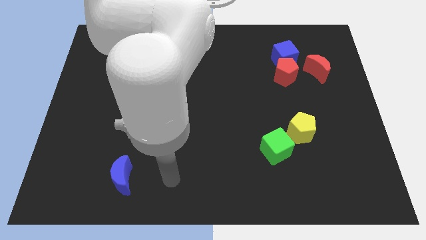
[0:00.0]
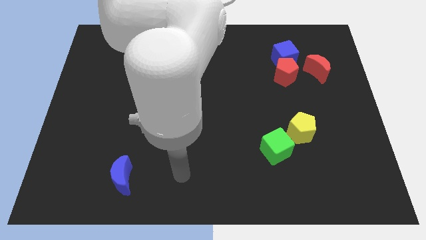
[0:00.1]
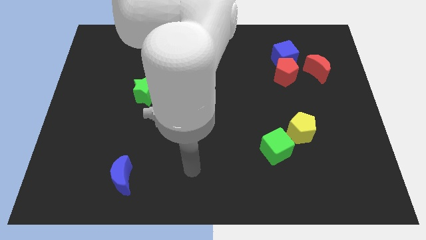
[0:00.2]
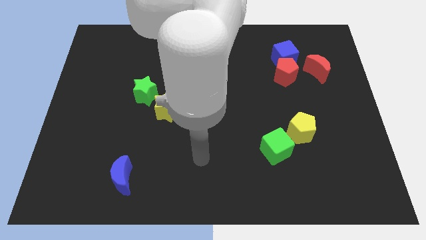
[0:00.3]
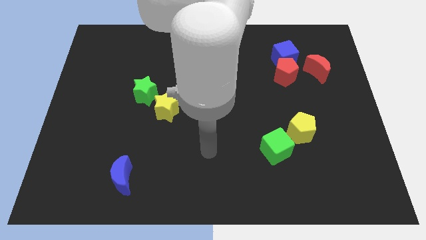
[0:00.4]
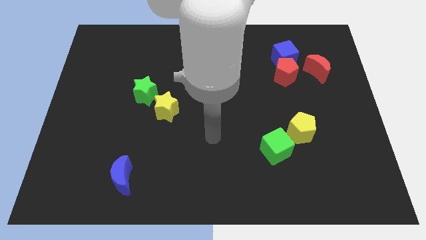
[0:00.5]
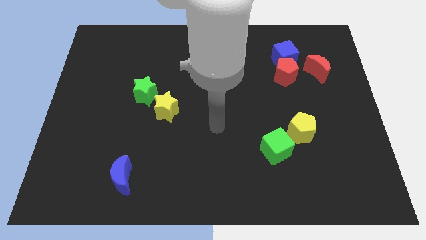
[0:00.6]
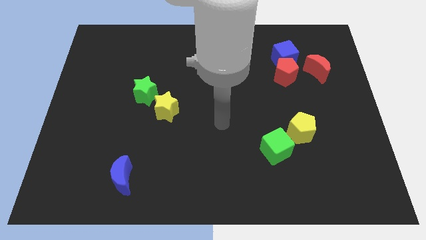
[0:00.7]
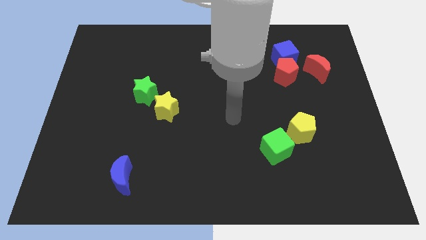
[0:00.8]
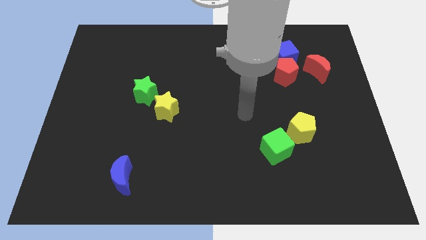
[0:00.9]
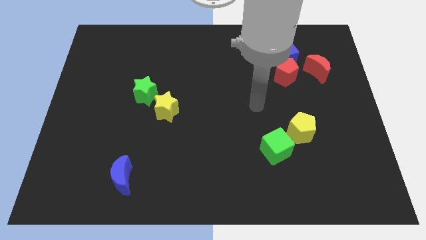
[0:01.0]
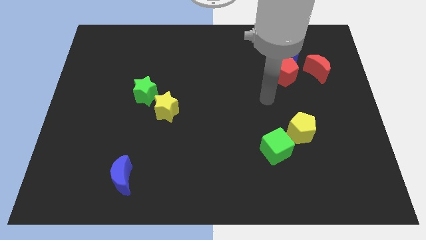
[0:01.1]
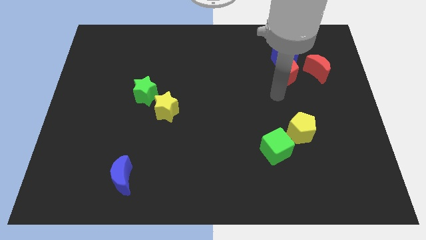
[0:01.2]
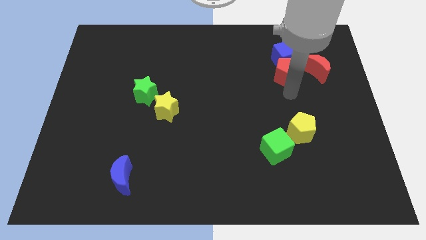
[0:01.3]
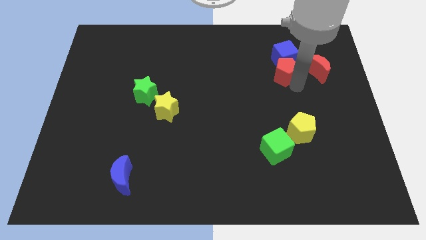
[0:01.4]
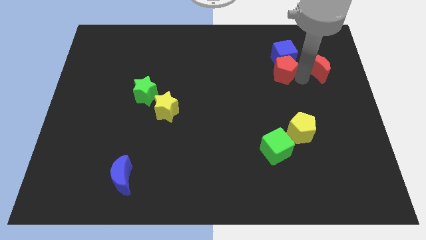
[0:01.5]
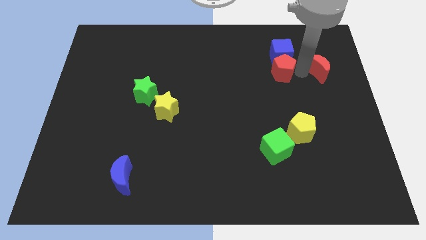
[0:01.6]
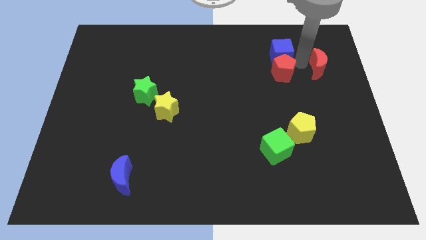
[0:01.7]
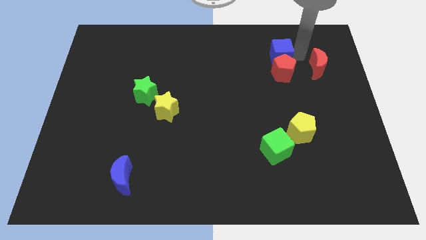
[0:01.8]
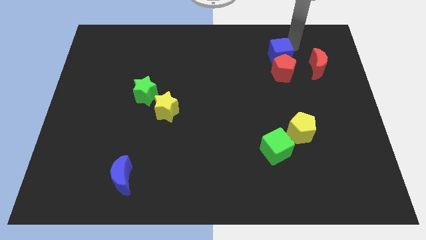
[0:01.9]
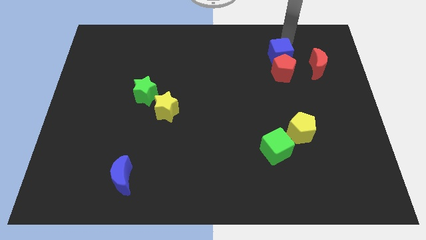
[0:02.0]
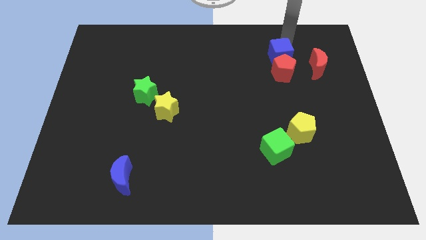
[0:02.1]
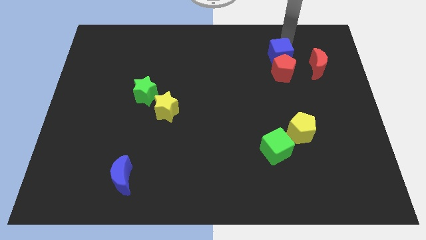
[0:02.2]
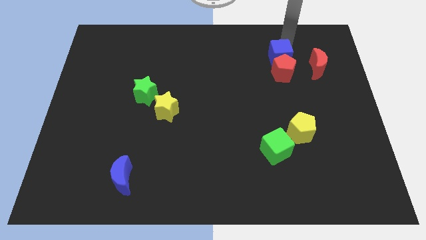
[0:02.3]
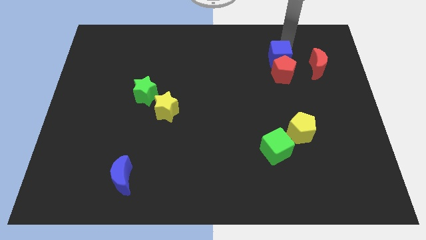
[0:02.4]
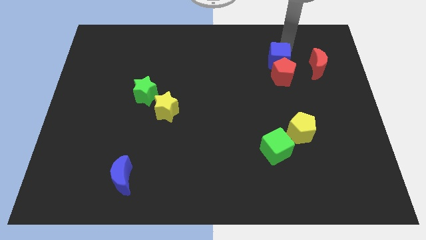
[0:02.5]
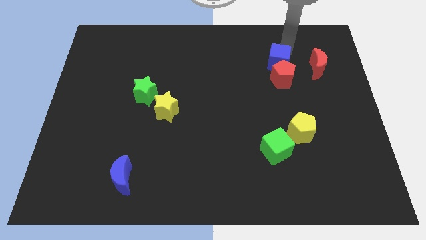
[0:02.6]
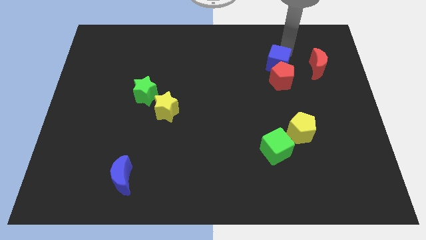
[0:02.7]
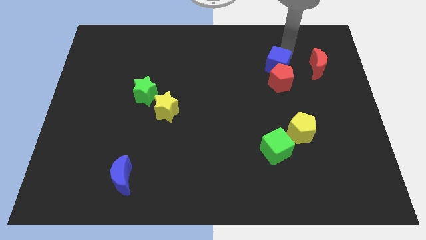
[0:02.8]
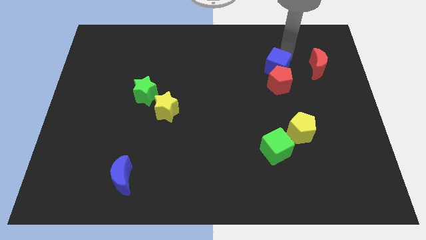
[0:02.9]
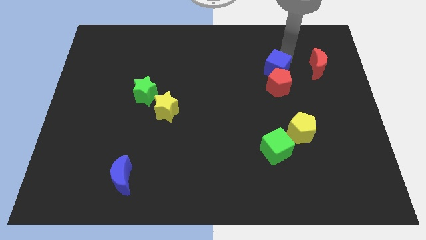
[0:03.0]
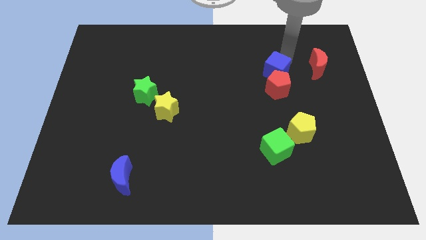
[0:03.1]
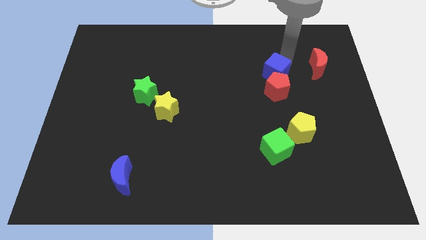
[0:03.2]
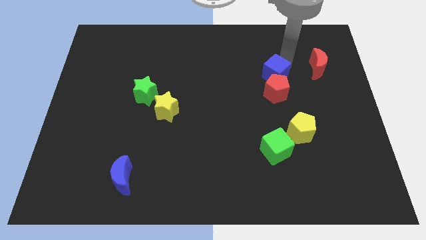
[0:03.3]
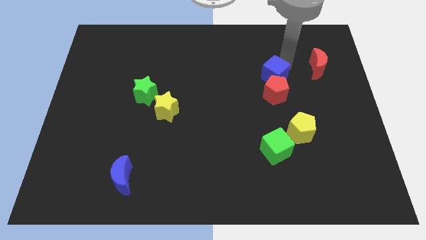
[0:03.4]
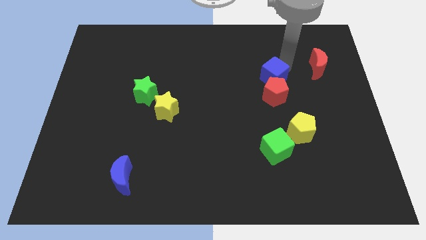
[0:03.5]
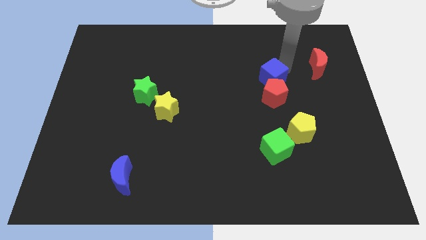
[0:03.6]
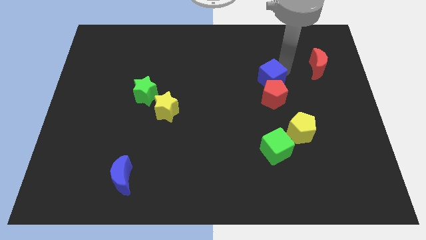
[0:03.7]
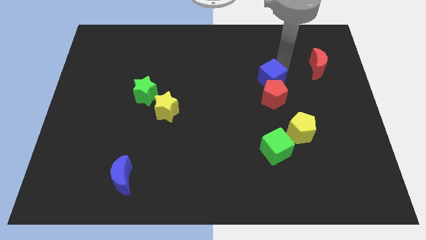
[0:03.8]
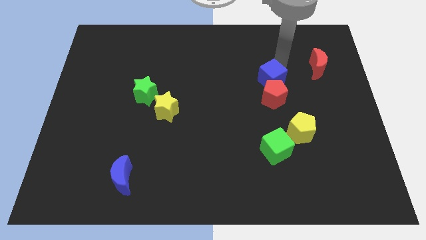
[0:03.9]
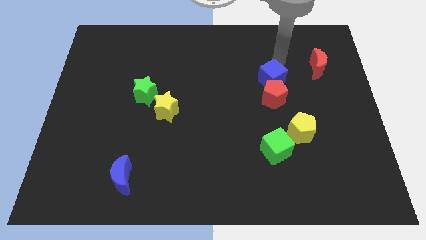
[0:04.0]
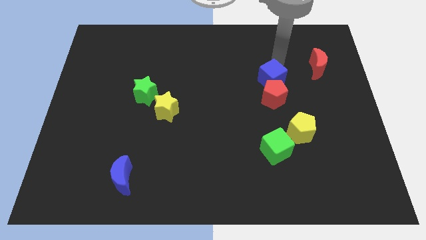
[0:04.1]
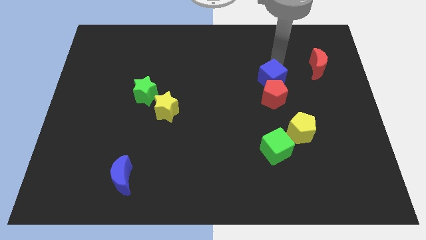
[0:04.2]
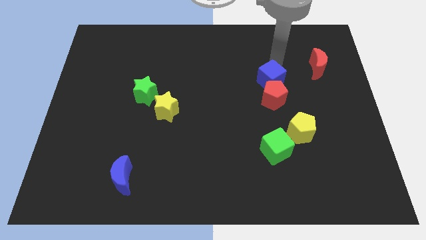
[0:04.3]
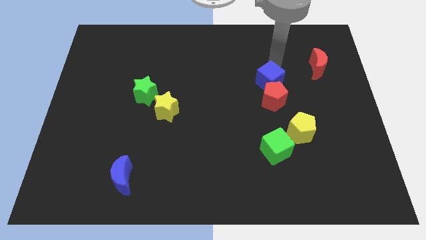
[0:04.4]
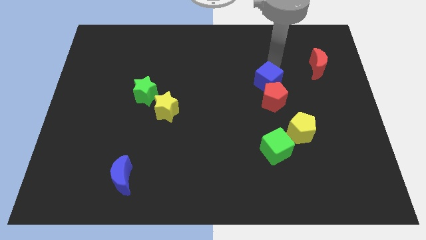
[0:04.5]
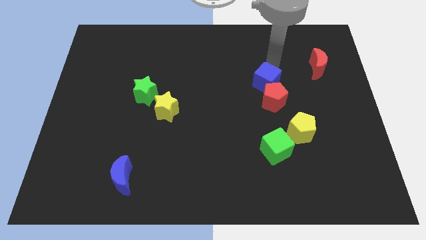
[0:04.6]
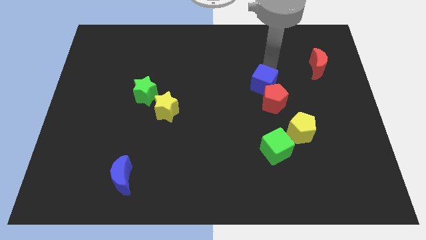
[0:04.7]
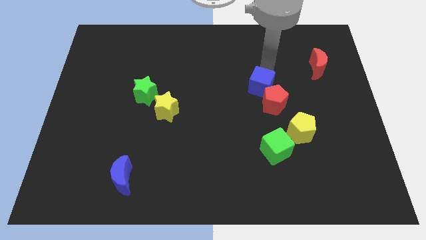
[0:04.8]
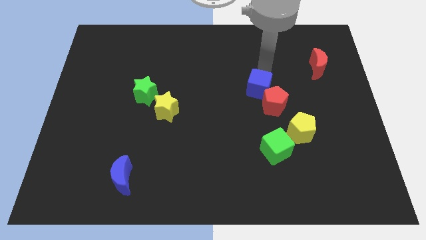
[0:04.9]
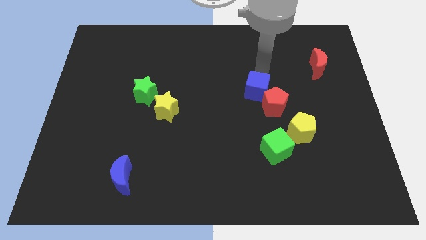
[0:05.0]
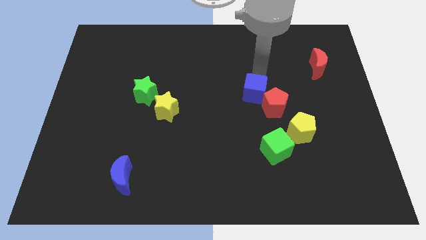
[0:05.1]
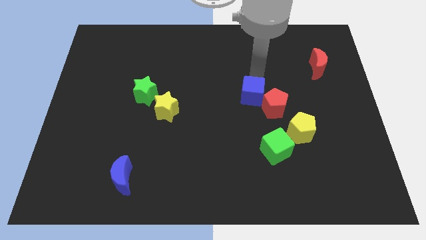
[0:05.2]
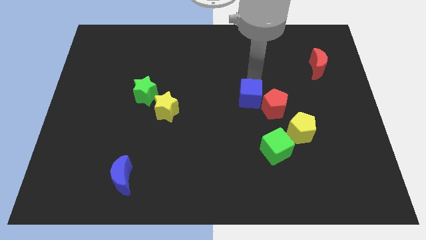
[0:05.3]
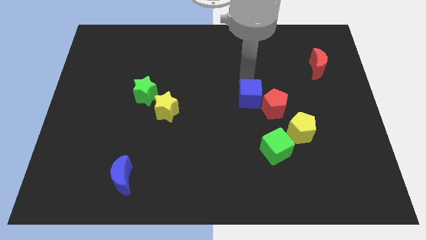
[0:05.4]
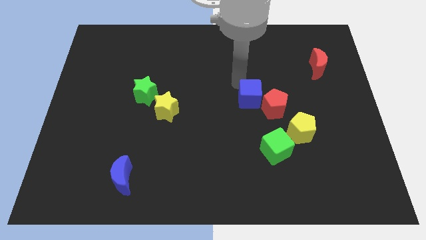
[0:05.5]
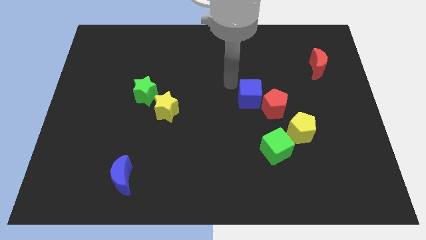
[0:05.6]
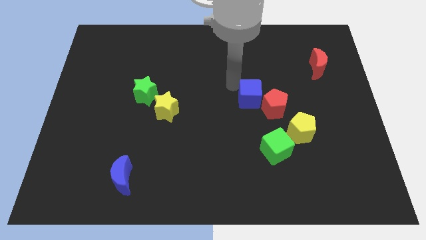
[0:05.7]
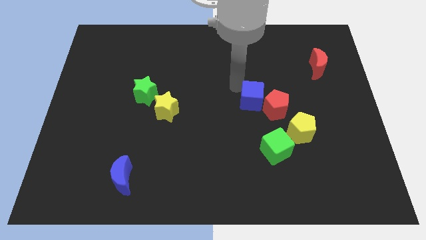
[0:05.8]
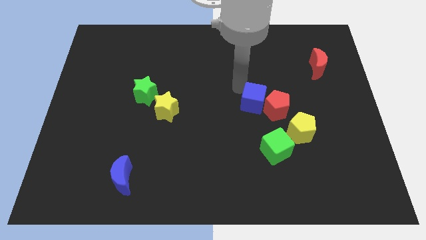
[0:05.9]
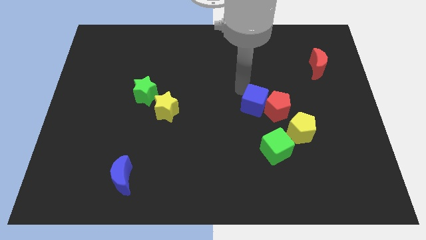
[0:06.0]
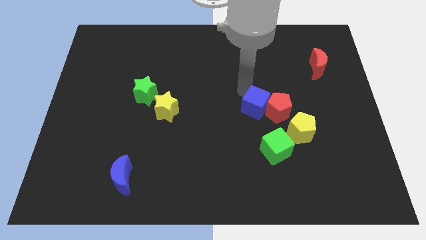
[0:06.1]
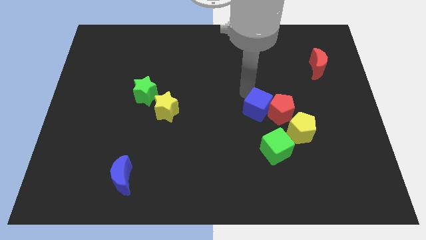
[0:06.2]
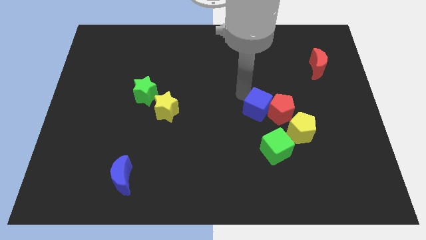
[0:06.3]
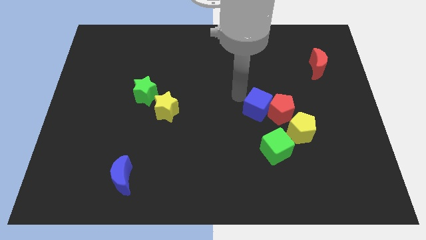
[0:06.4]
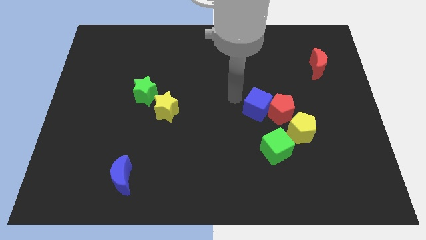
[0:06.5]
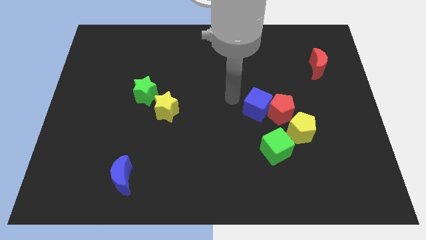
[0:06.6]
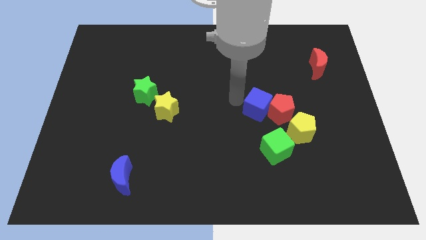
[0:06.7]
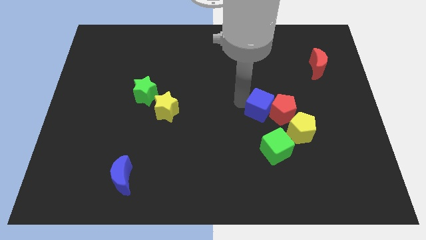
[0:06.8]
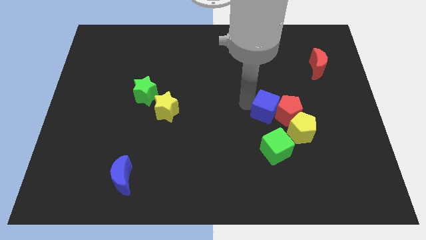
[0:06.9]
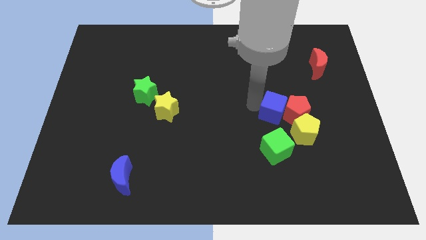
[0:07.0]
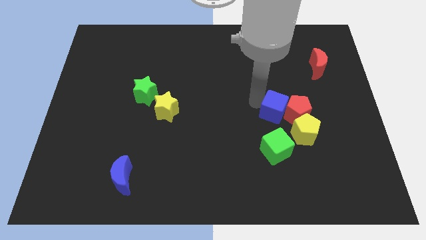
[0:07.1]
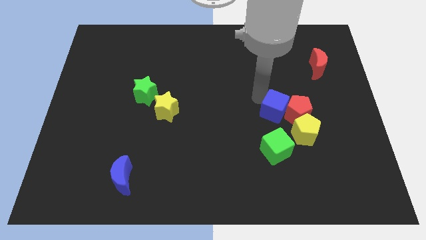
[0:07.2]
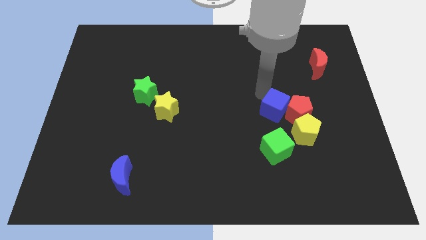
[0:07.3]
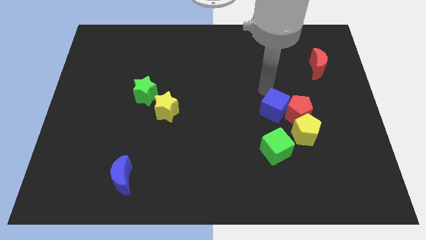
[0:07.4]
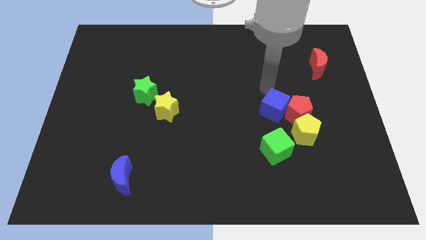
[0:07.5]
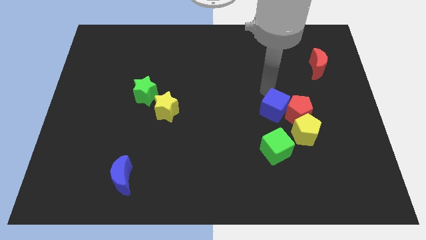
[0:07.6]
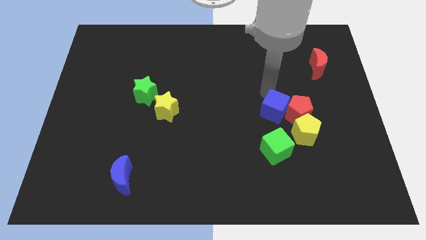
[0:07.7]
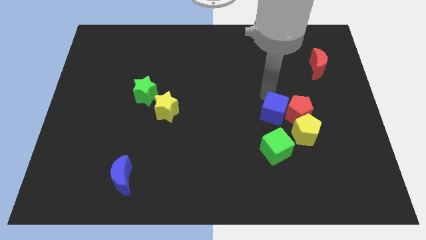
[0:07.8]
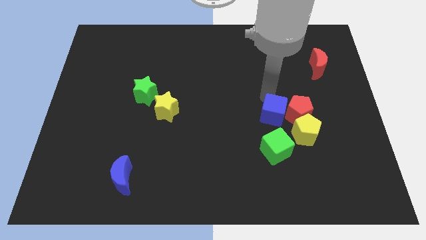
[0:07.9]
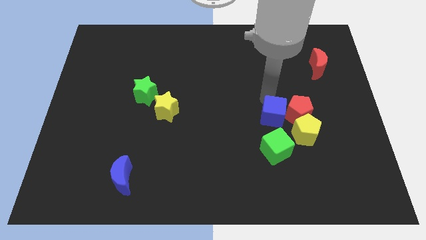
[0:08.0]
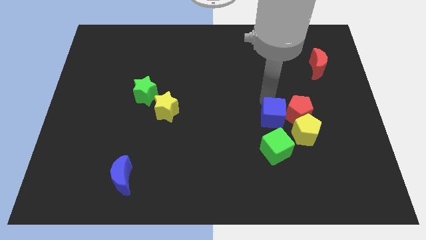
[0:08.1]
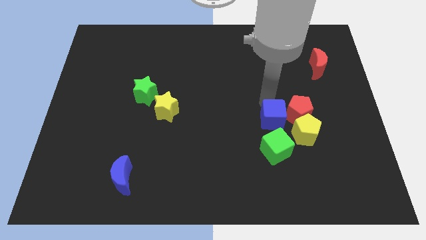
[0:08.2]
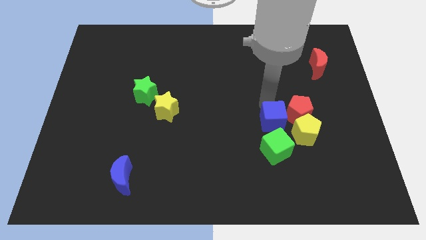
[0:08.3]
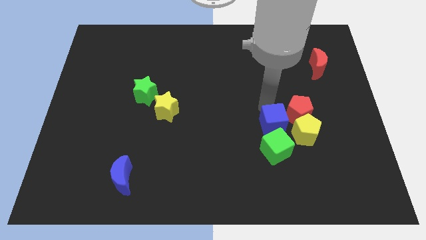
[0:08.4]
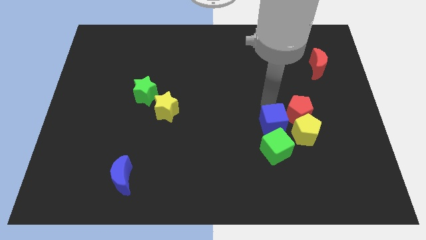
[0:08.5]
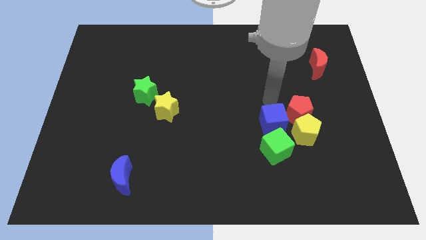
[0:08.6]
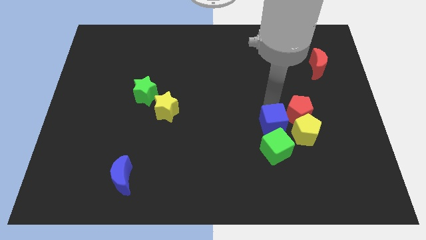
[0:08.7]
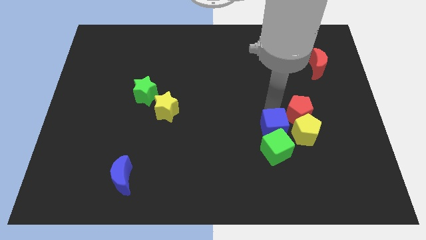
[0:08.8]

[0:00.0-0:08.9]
put the blue cube towards the green cube

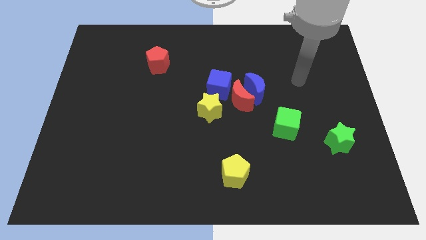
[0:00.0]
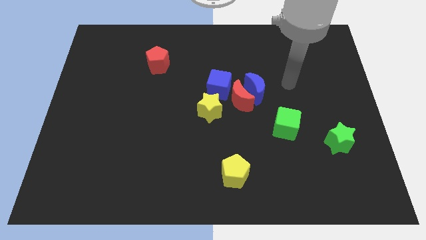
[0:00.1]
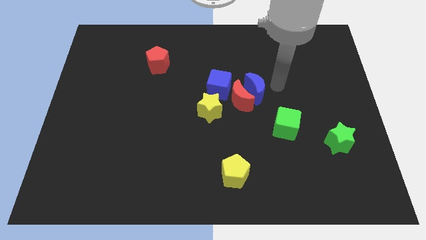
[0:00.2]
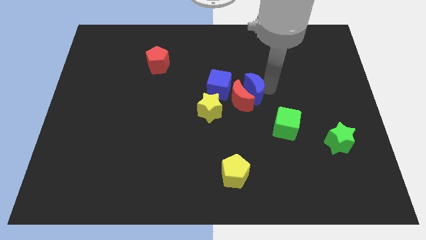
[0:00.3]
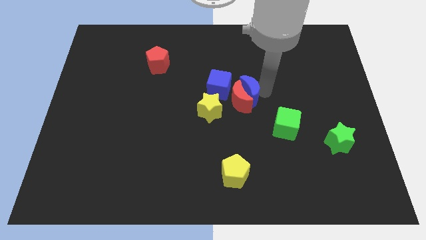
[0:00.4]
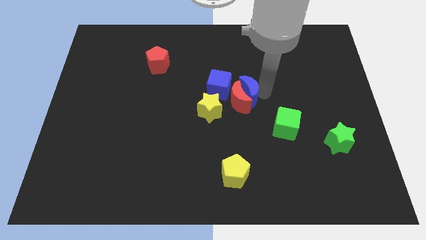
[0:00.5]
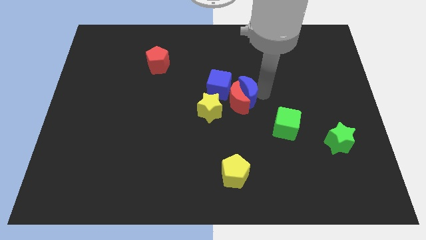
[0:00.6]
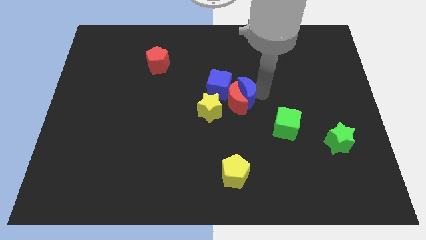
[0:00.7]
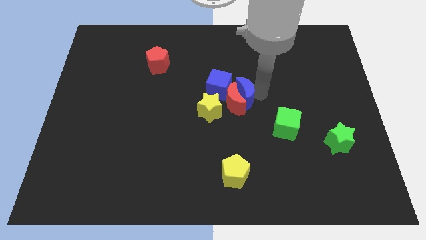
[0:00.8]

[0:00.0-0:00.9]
move the red moon close to the yellow star
